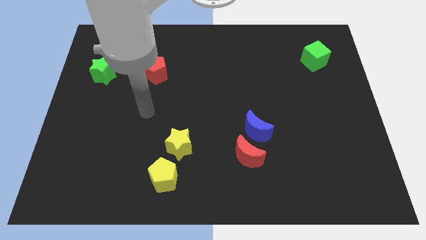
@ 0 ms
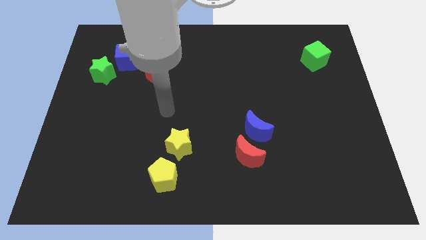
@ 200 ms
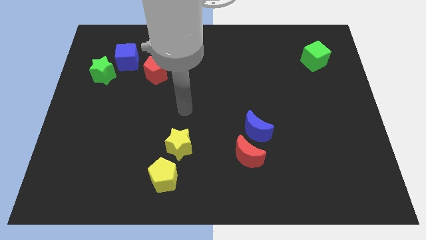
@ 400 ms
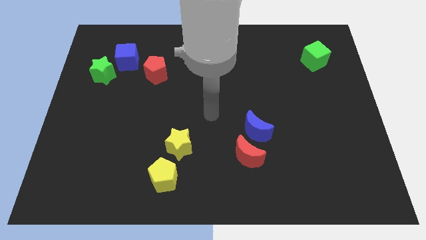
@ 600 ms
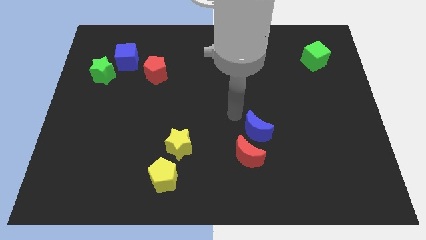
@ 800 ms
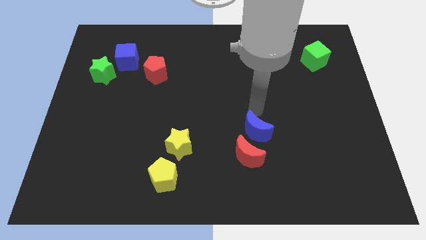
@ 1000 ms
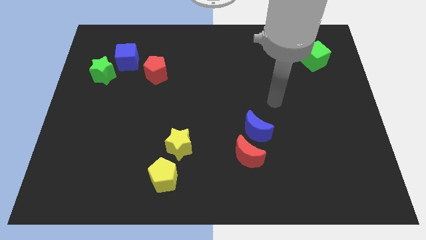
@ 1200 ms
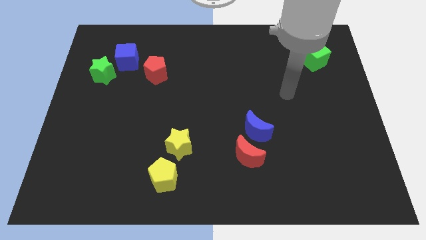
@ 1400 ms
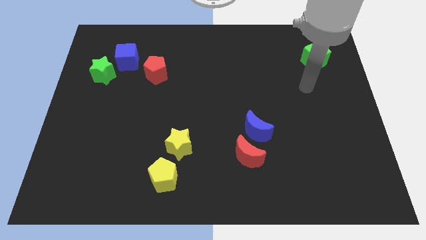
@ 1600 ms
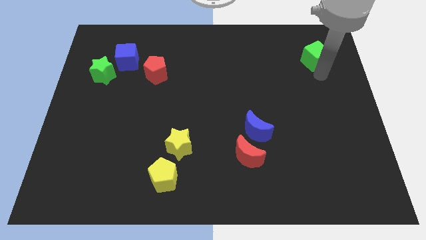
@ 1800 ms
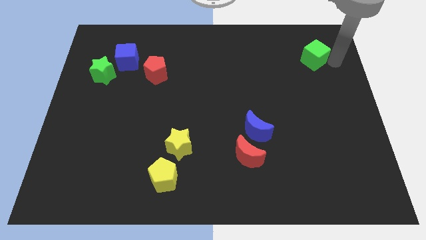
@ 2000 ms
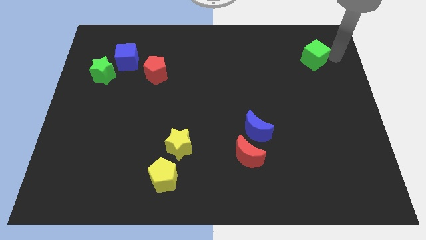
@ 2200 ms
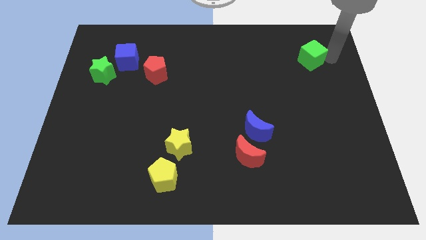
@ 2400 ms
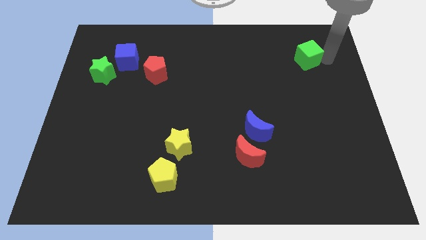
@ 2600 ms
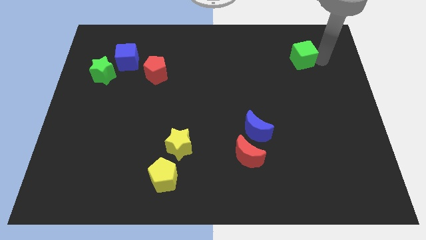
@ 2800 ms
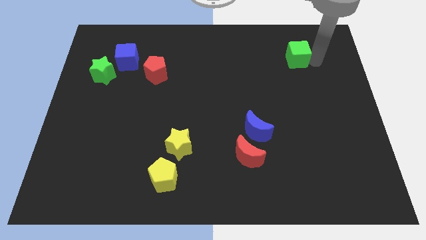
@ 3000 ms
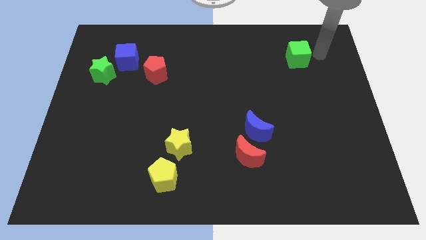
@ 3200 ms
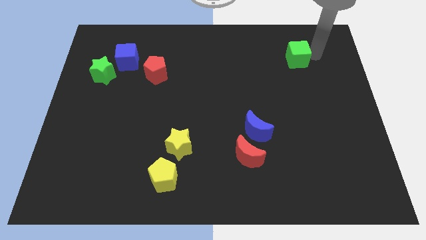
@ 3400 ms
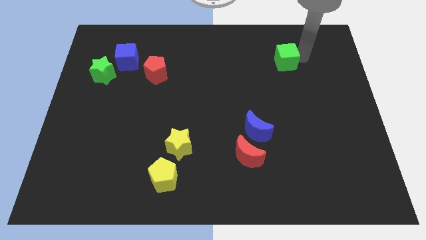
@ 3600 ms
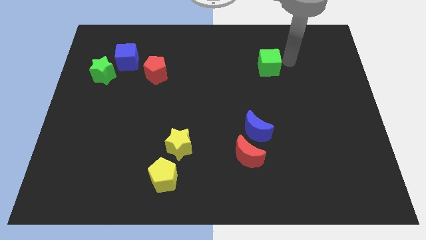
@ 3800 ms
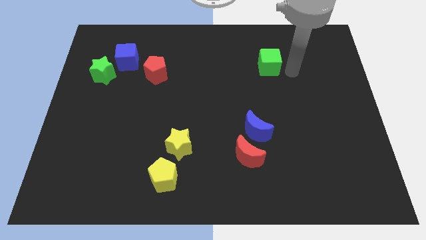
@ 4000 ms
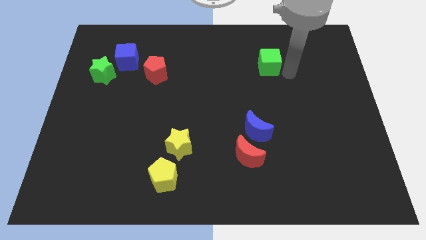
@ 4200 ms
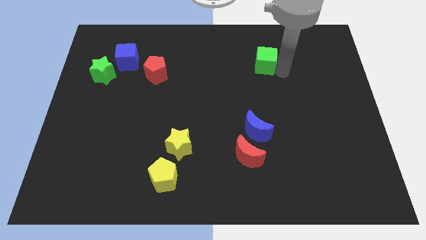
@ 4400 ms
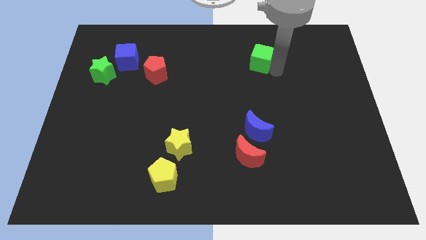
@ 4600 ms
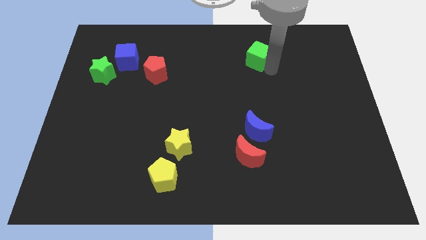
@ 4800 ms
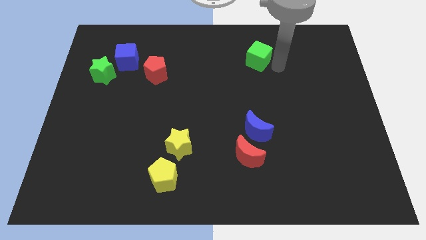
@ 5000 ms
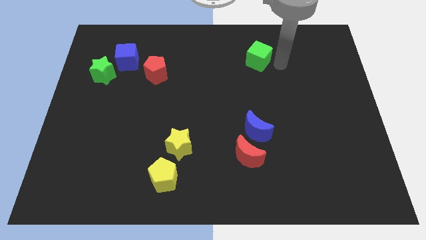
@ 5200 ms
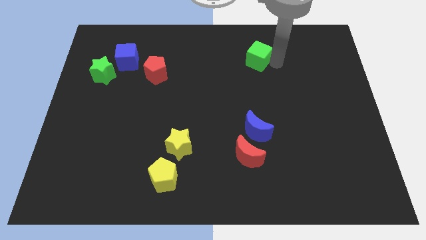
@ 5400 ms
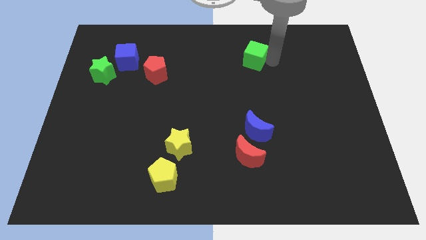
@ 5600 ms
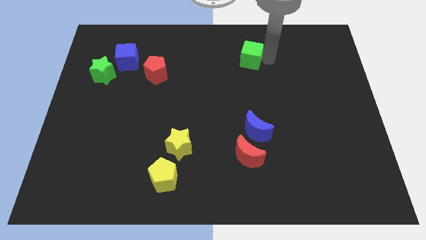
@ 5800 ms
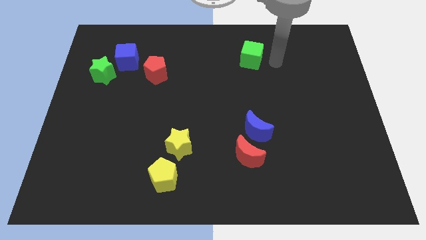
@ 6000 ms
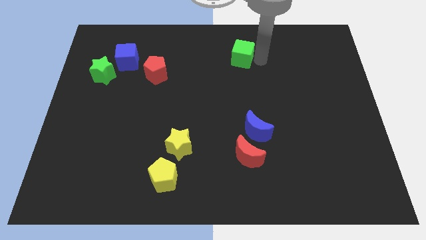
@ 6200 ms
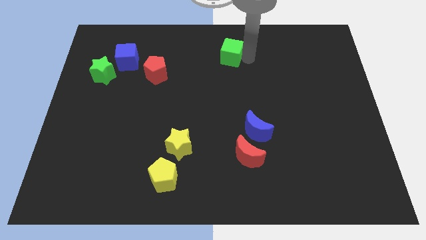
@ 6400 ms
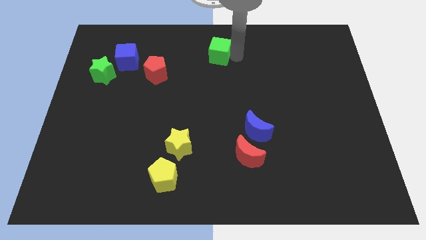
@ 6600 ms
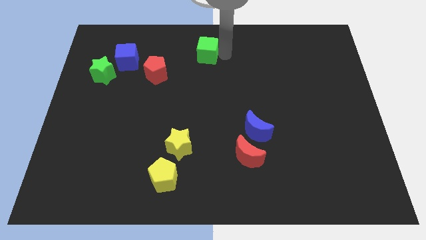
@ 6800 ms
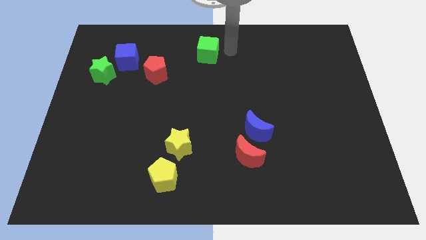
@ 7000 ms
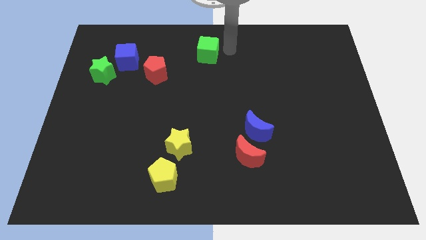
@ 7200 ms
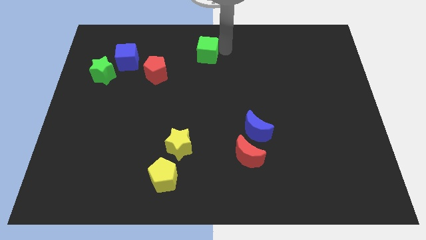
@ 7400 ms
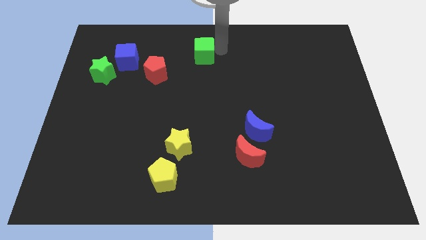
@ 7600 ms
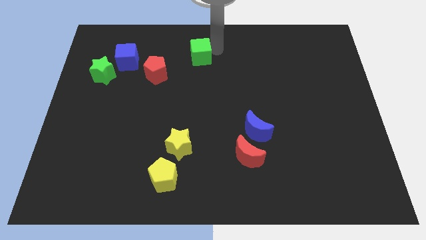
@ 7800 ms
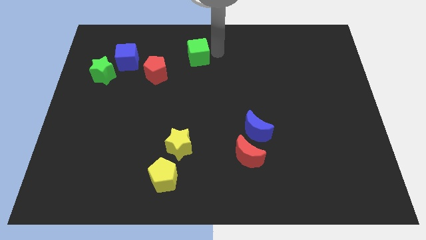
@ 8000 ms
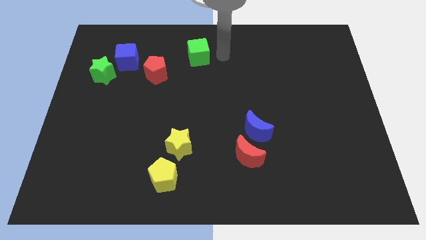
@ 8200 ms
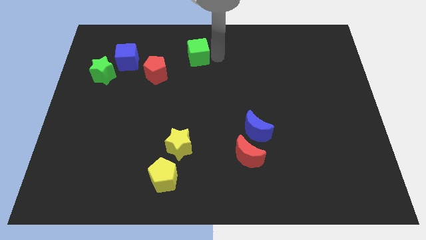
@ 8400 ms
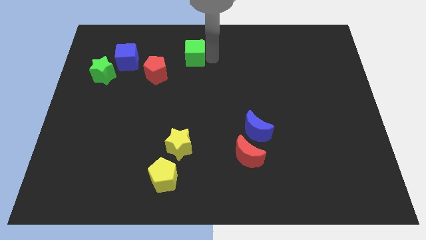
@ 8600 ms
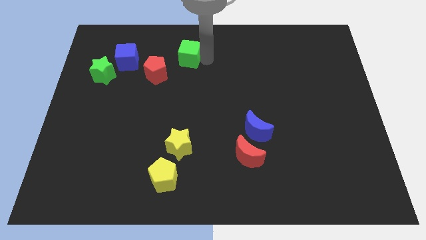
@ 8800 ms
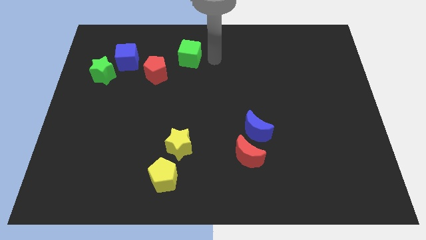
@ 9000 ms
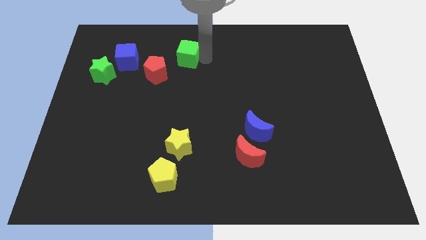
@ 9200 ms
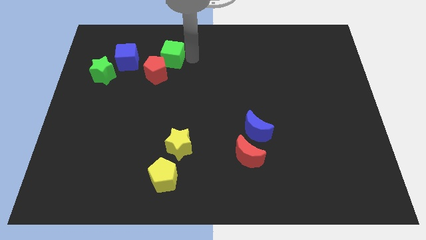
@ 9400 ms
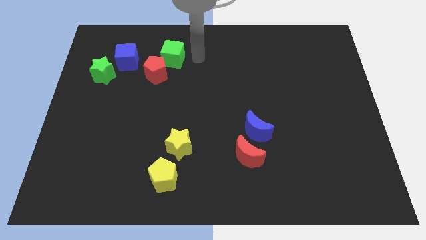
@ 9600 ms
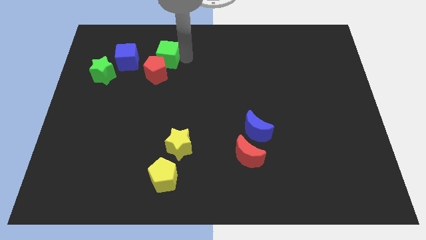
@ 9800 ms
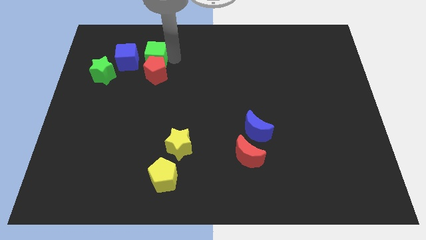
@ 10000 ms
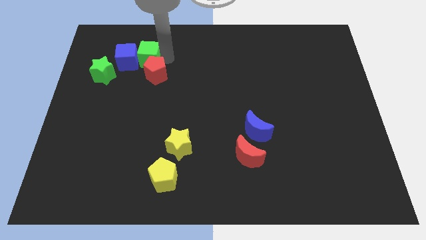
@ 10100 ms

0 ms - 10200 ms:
slide the green cube next to the blue cube

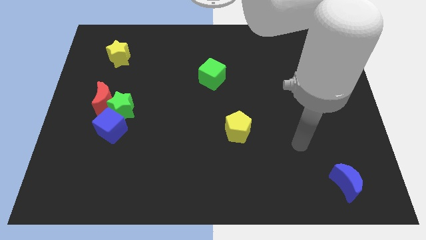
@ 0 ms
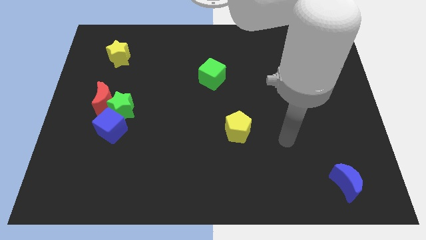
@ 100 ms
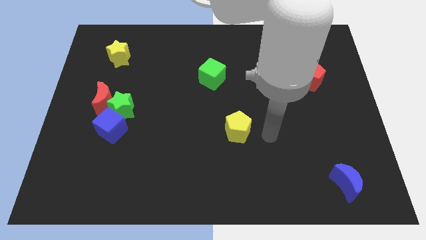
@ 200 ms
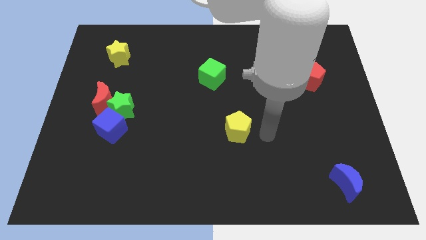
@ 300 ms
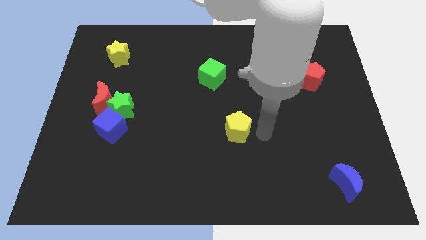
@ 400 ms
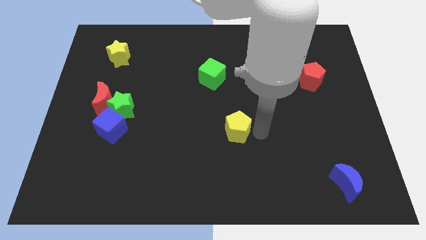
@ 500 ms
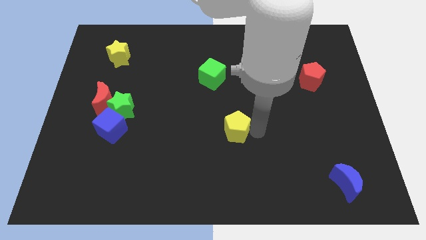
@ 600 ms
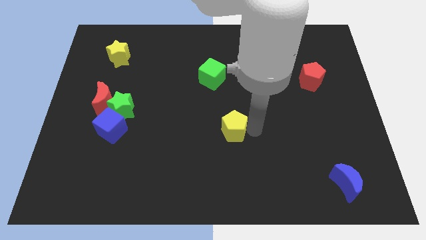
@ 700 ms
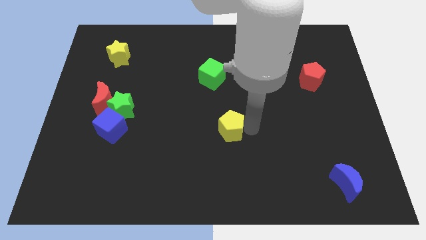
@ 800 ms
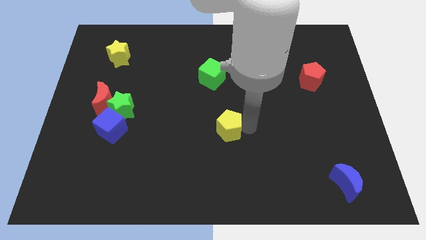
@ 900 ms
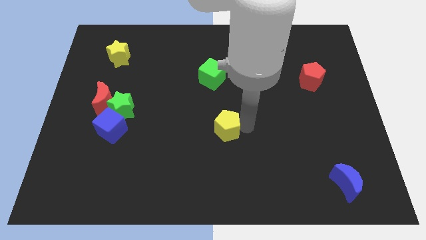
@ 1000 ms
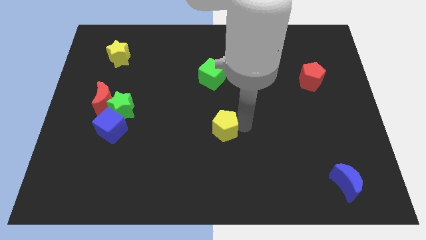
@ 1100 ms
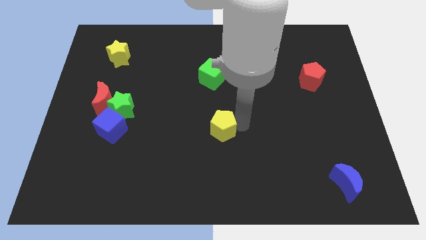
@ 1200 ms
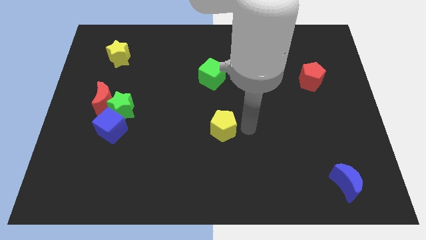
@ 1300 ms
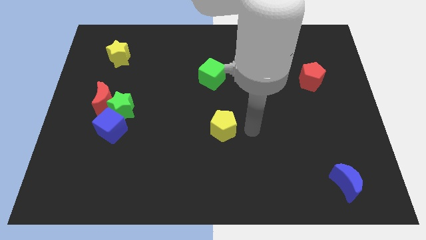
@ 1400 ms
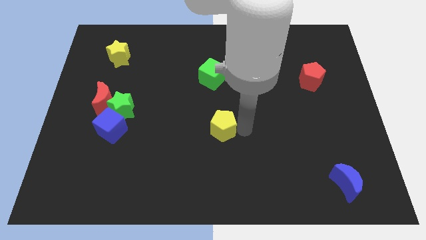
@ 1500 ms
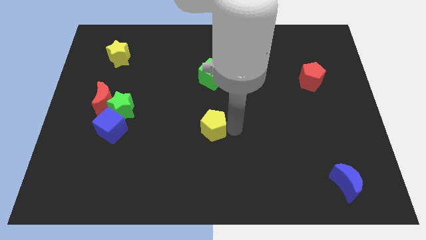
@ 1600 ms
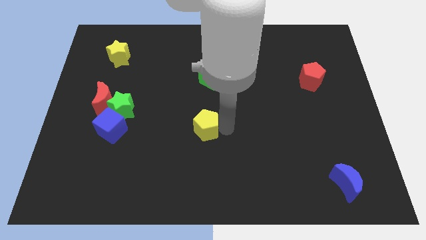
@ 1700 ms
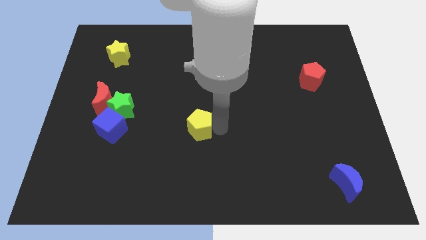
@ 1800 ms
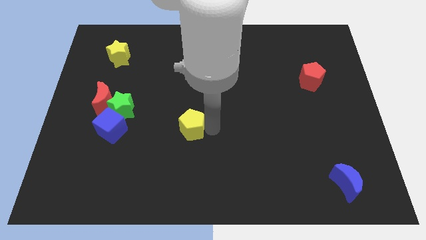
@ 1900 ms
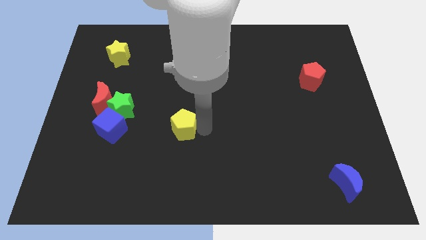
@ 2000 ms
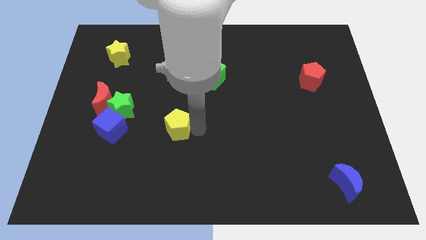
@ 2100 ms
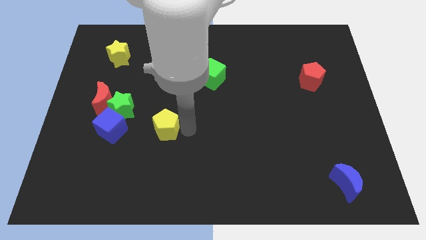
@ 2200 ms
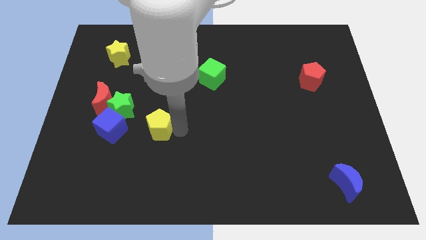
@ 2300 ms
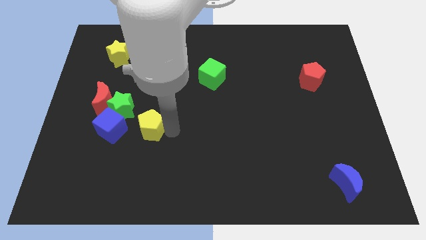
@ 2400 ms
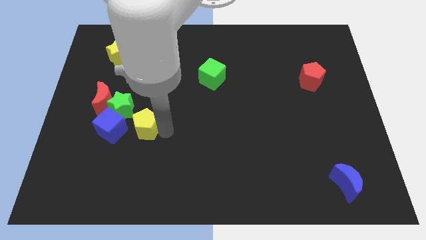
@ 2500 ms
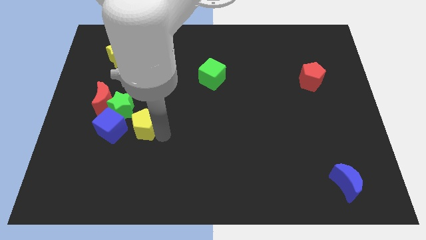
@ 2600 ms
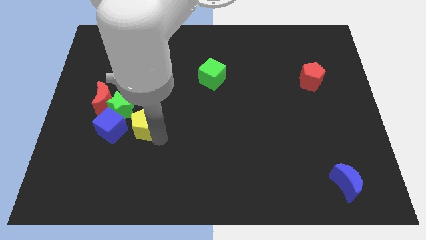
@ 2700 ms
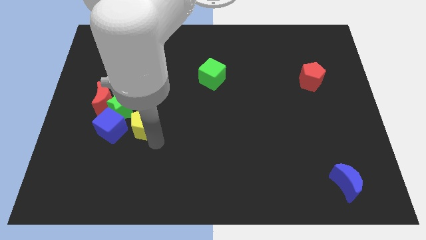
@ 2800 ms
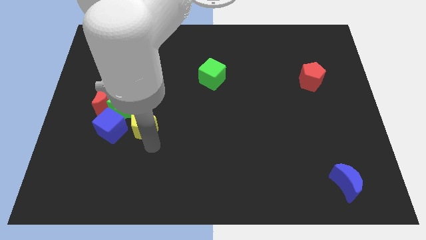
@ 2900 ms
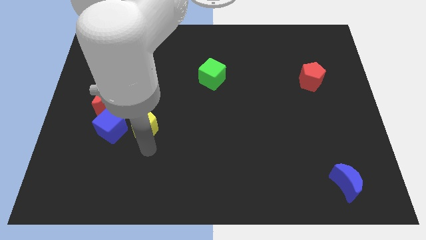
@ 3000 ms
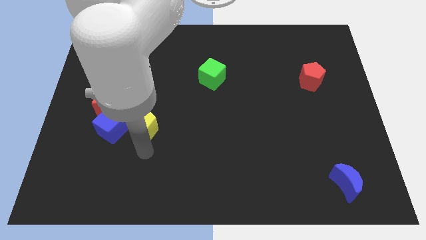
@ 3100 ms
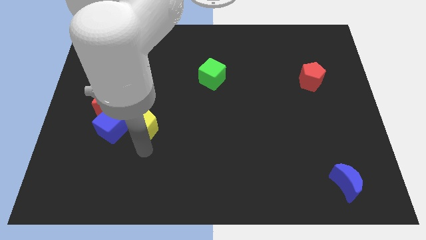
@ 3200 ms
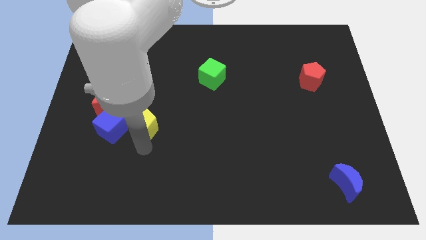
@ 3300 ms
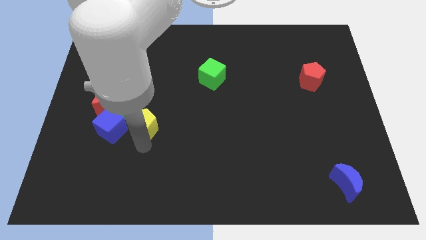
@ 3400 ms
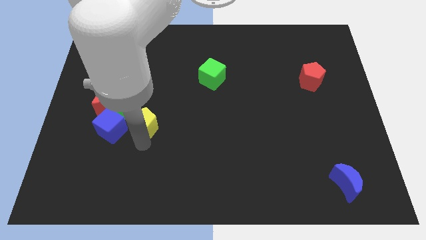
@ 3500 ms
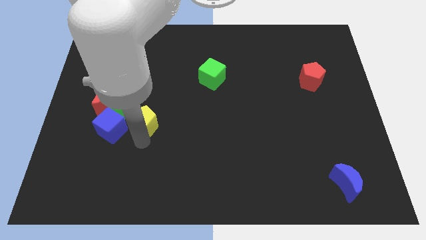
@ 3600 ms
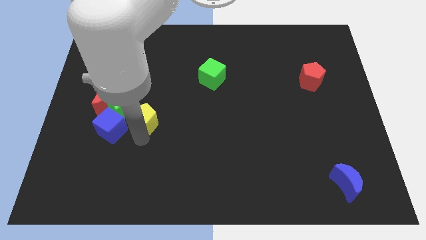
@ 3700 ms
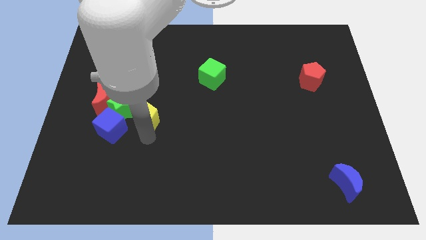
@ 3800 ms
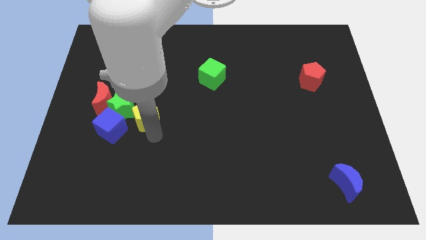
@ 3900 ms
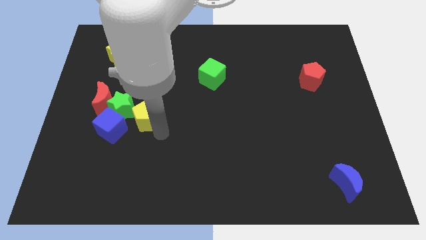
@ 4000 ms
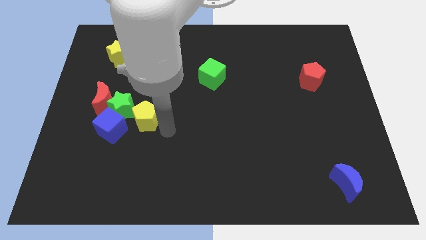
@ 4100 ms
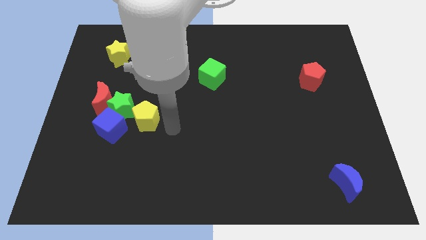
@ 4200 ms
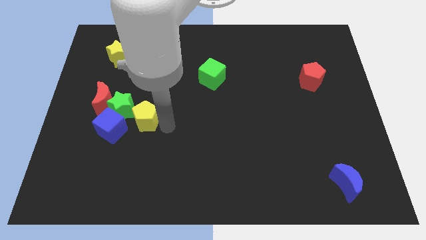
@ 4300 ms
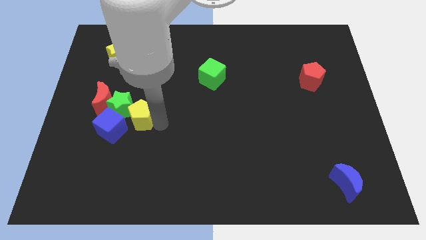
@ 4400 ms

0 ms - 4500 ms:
put the yellow pentagon to the green star
